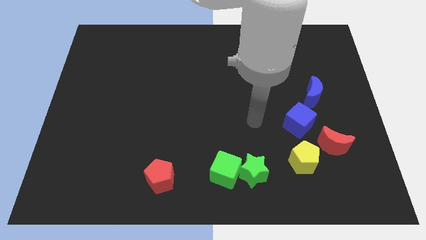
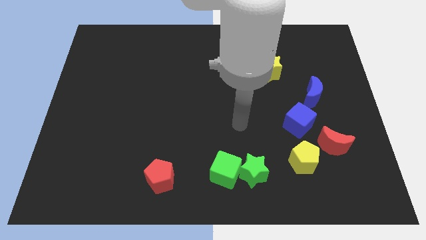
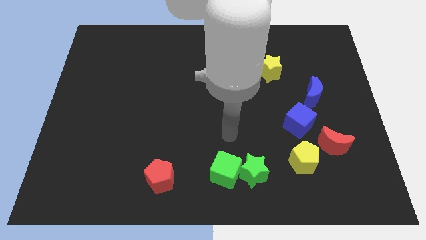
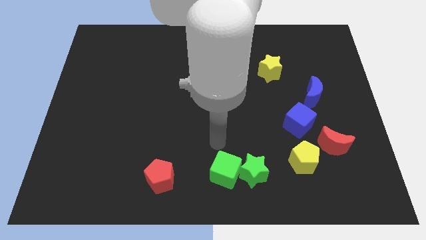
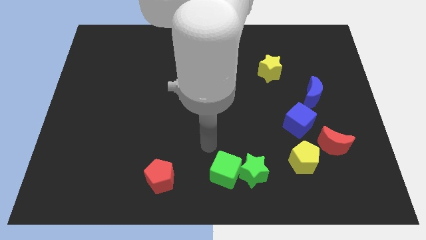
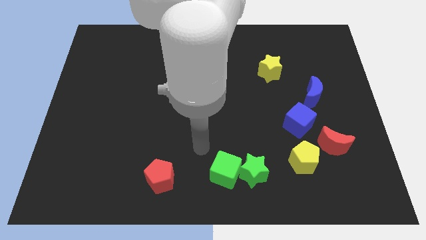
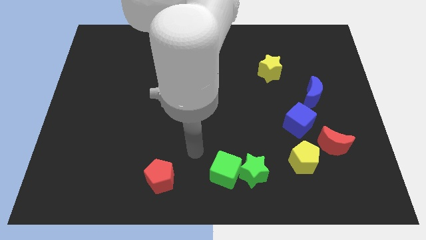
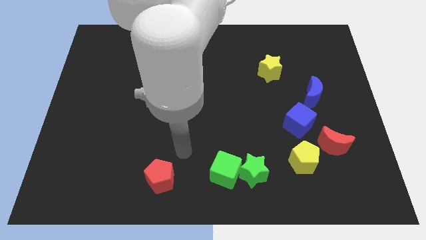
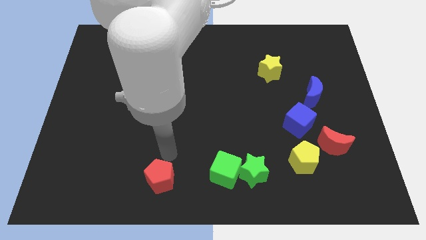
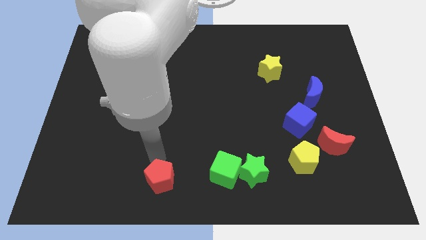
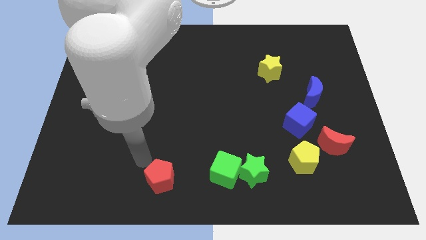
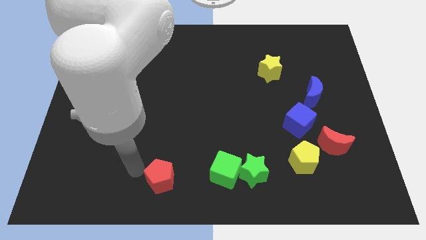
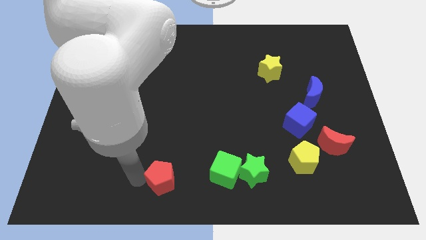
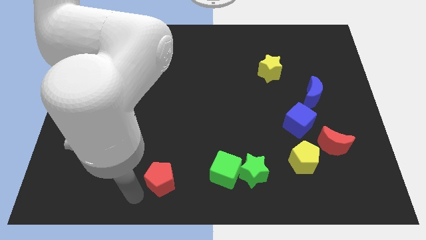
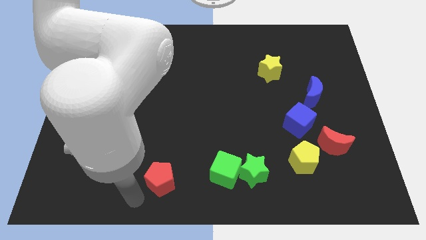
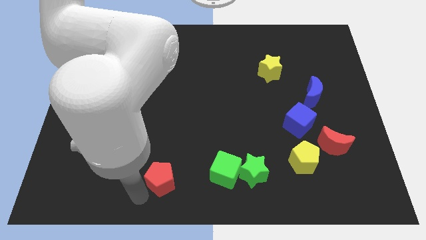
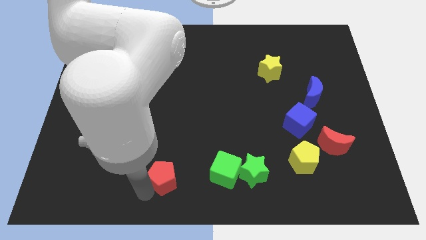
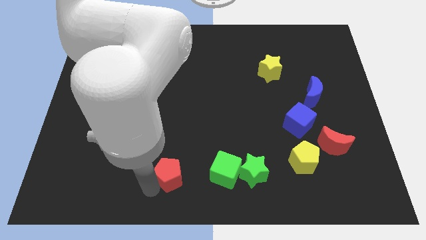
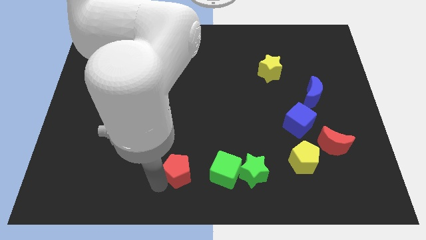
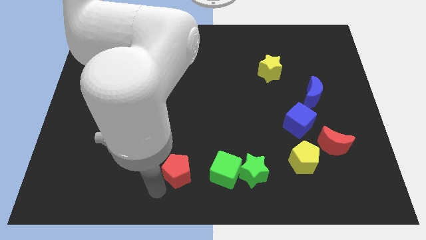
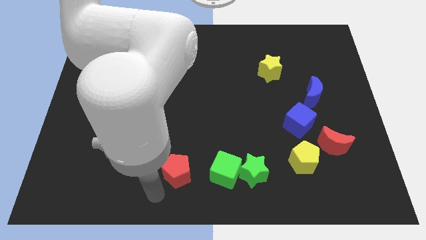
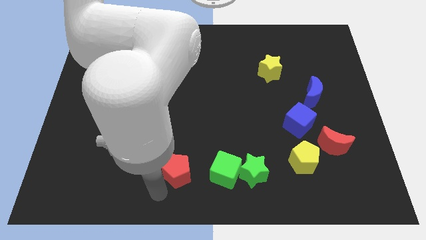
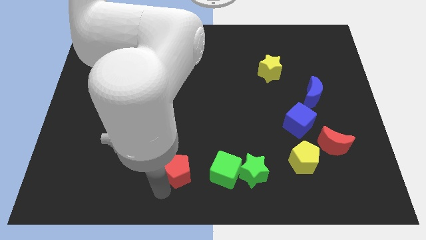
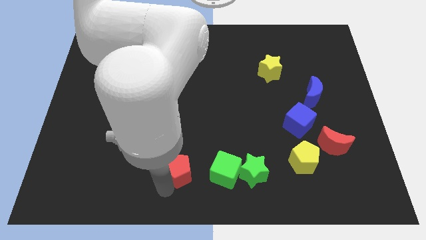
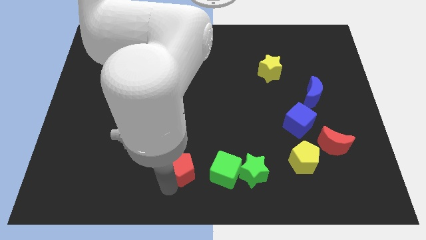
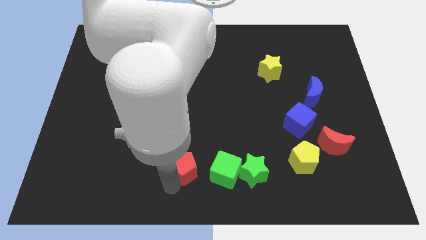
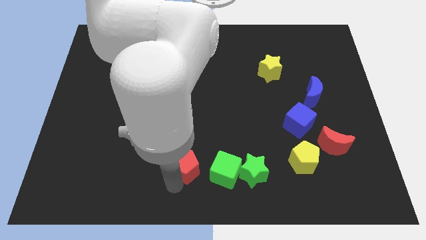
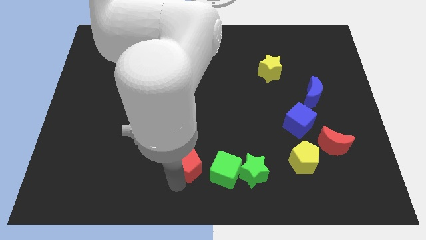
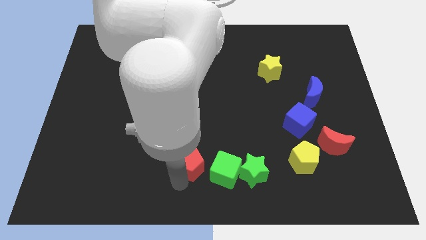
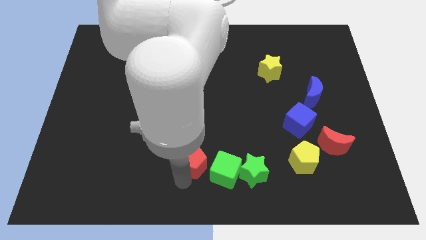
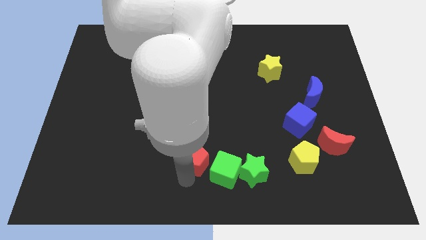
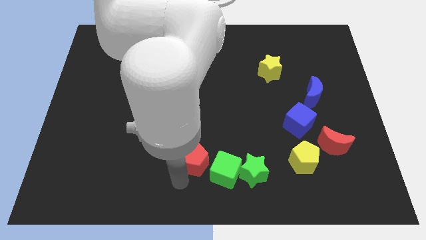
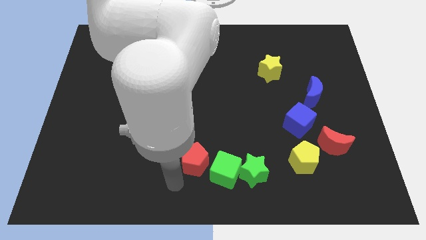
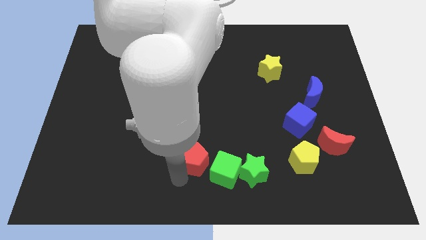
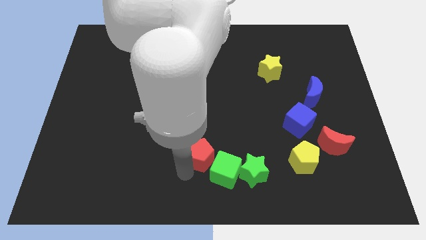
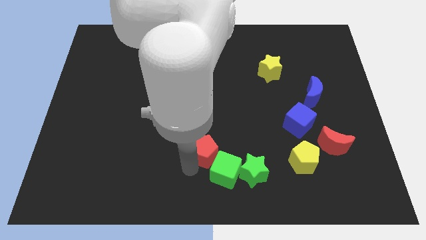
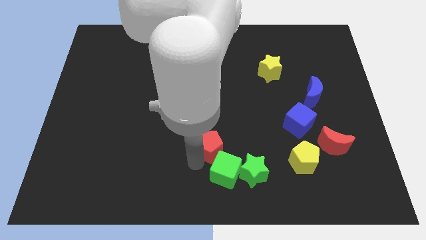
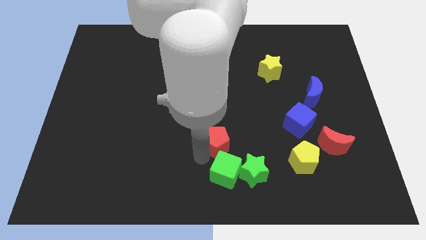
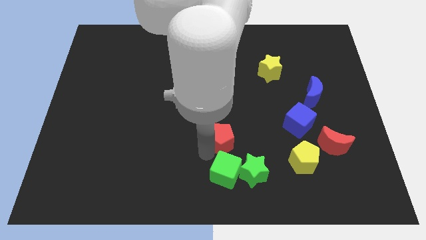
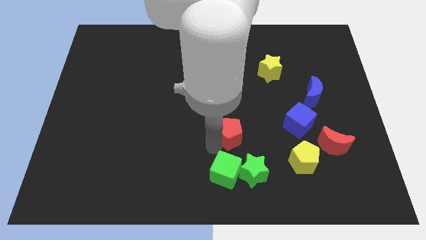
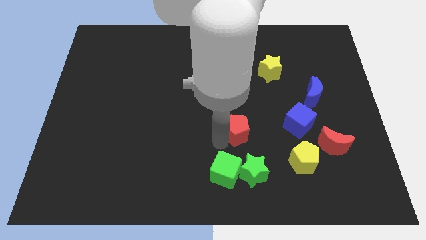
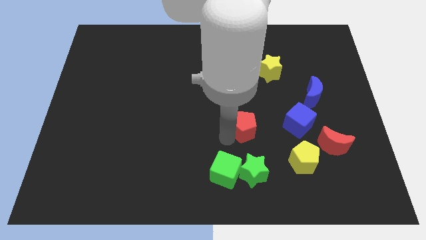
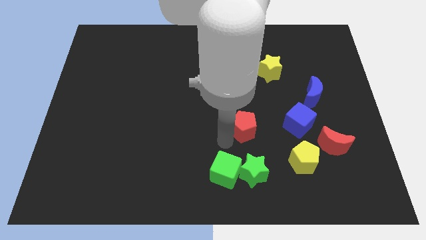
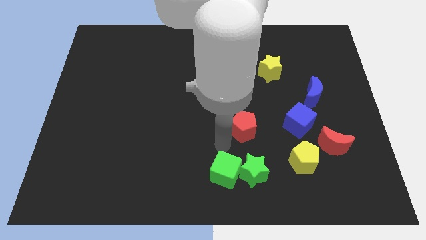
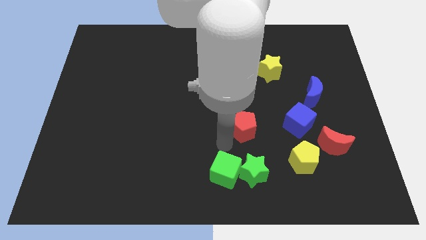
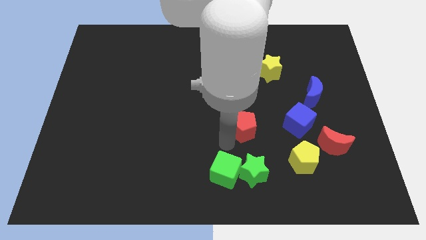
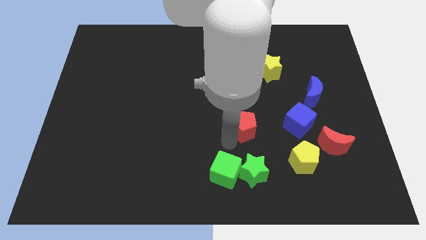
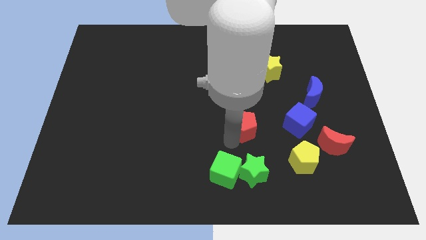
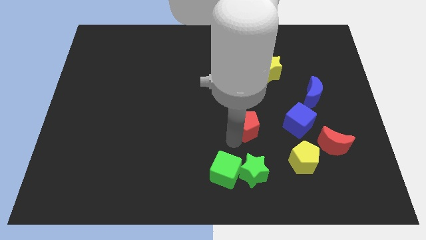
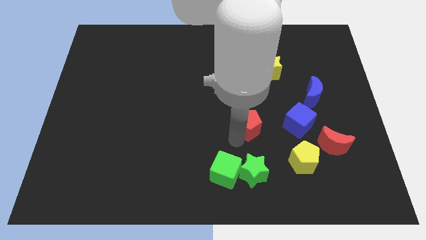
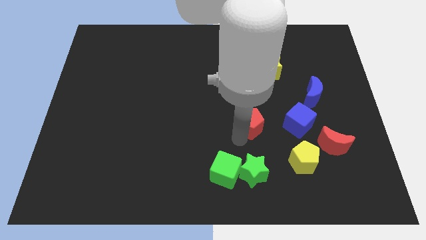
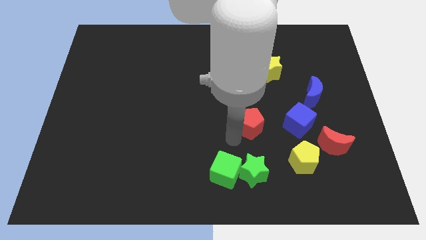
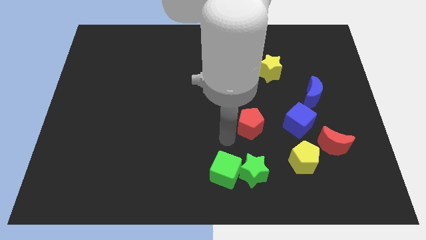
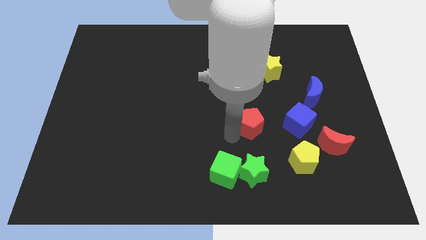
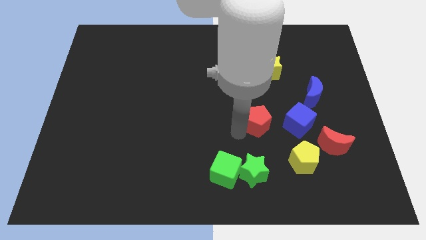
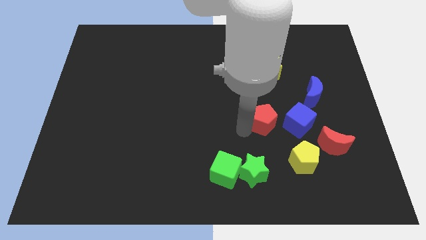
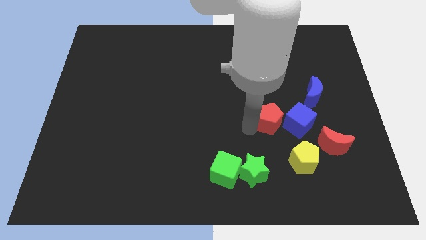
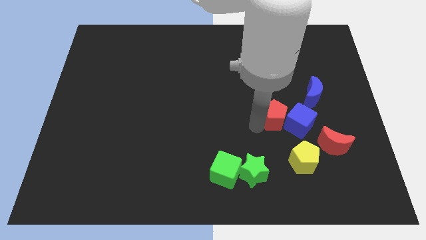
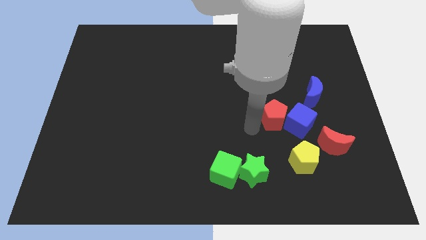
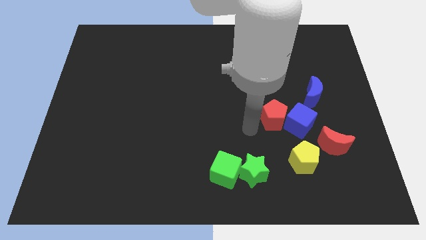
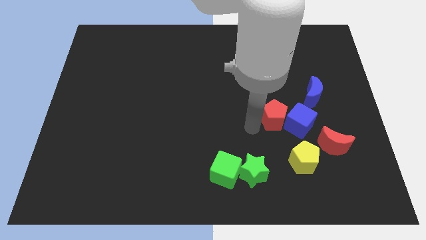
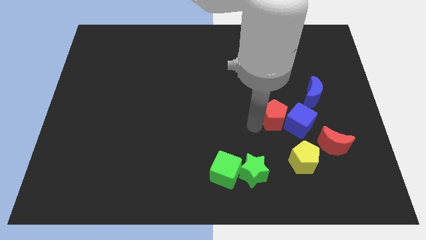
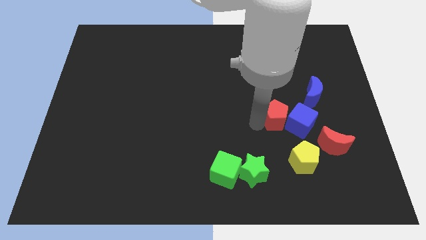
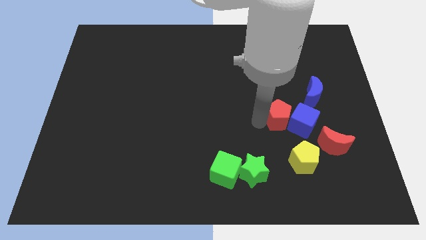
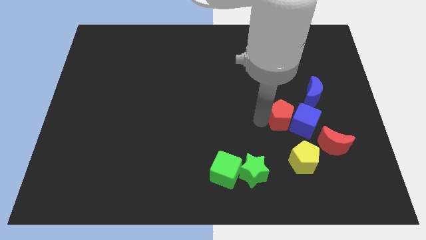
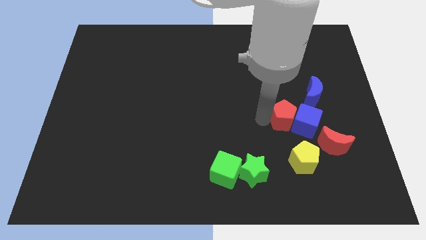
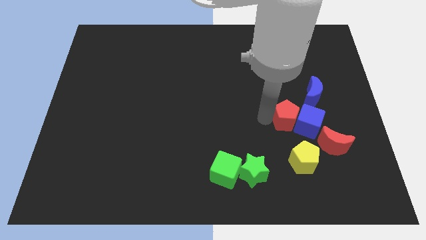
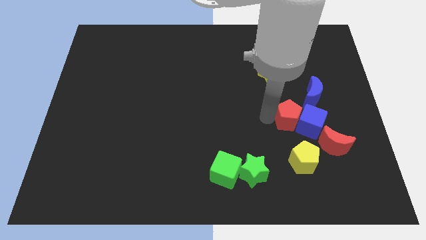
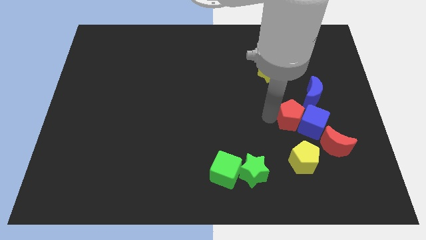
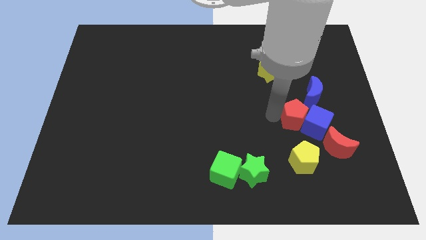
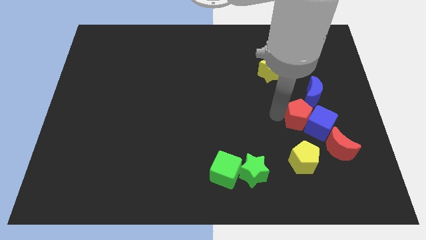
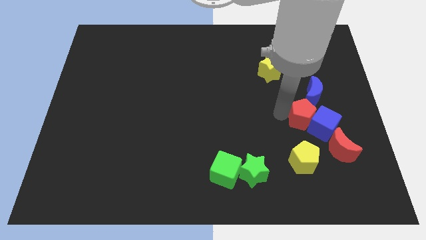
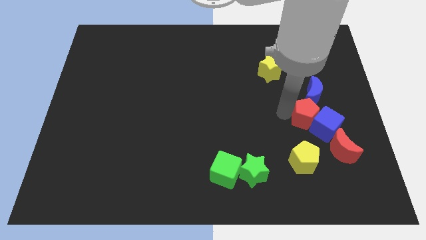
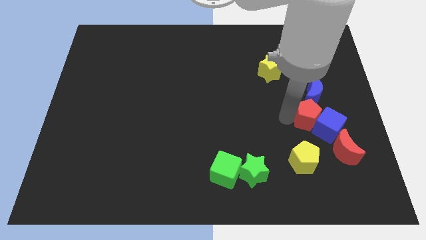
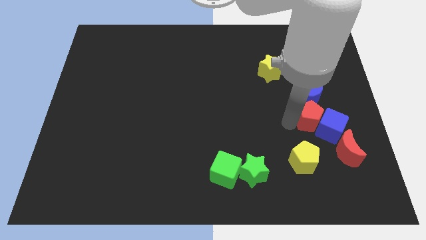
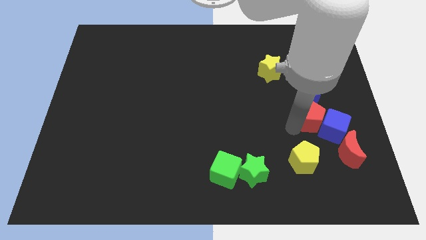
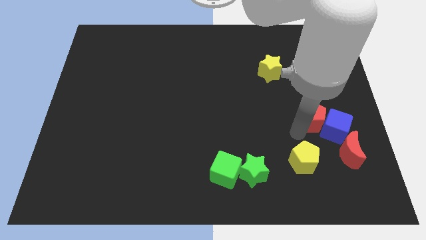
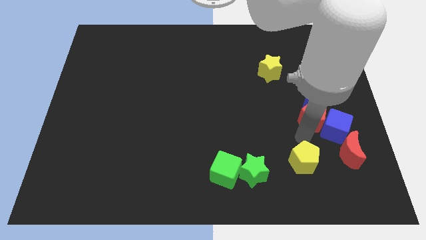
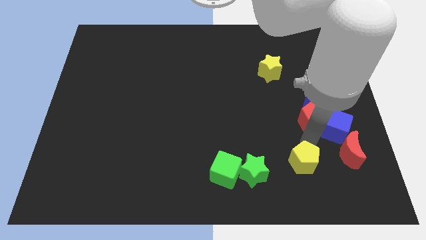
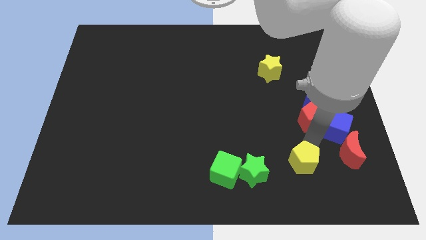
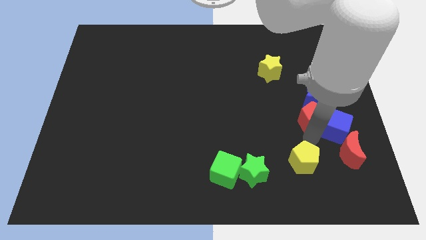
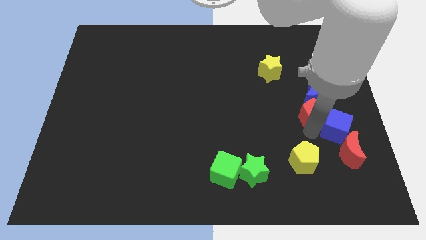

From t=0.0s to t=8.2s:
put the red pentagon to the blue moon
